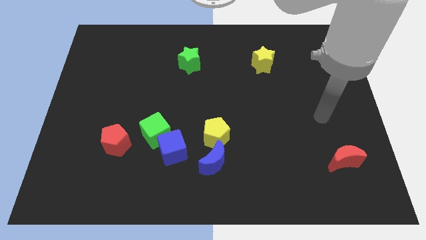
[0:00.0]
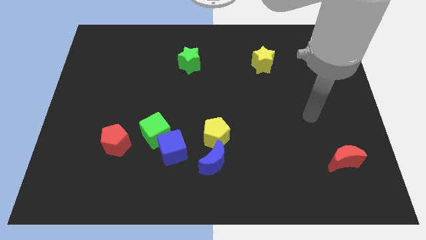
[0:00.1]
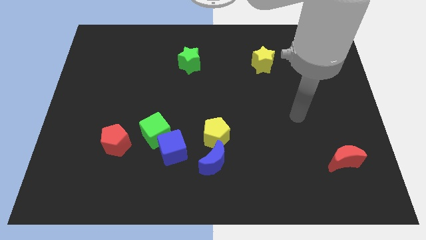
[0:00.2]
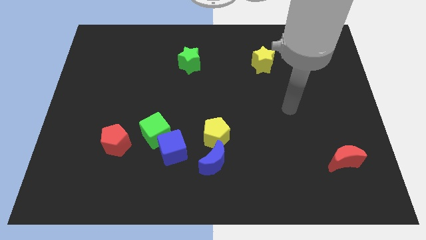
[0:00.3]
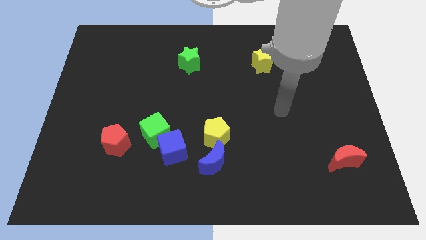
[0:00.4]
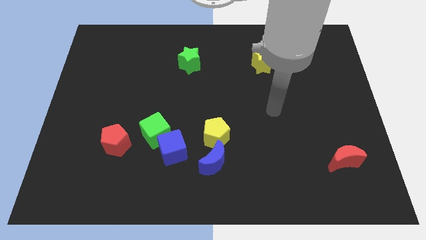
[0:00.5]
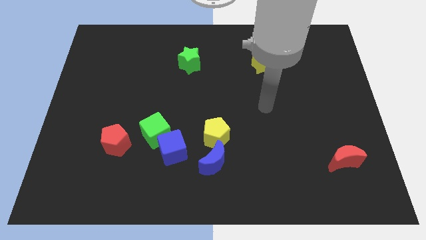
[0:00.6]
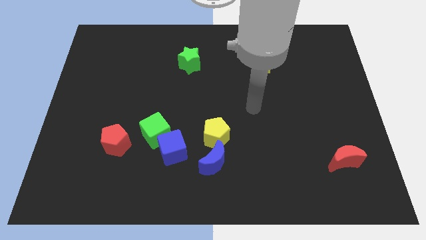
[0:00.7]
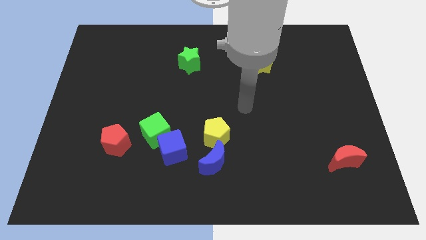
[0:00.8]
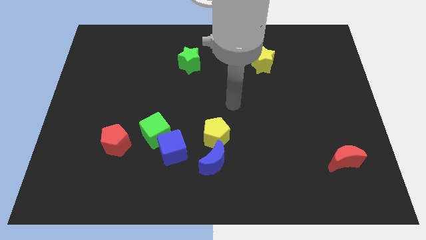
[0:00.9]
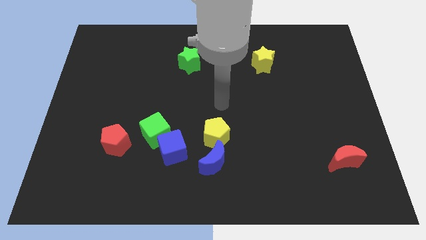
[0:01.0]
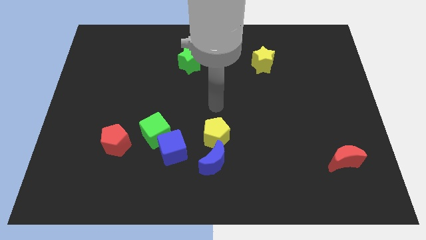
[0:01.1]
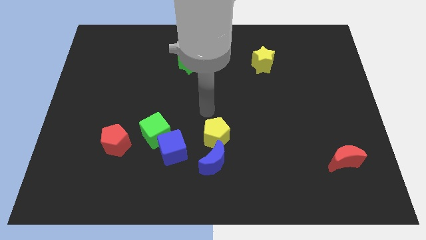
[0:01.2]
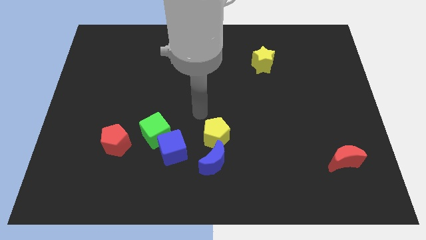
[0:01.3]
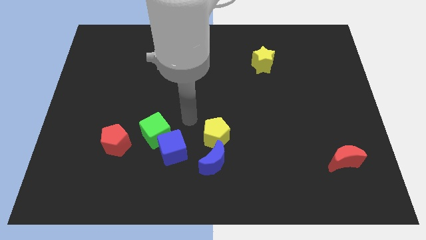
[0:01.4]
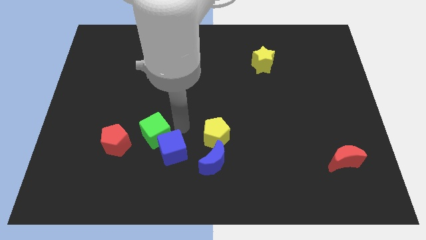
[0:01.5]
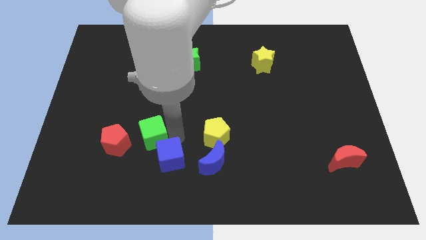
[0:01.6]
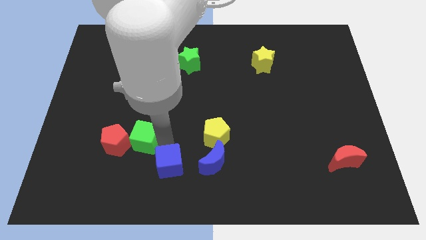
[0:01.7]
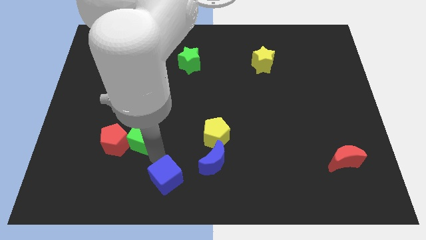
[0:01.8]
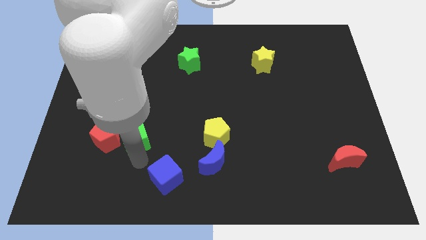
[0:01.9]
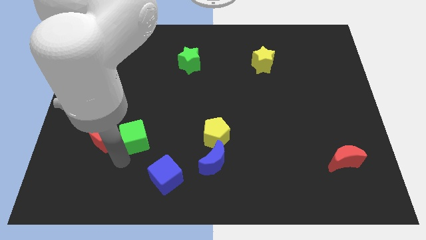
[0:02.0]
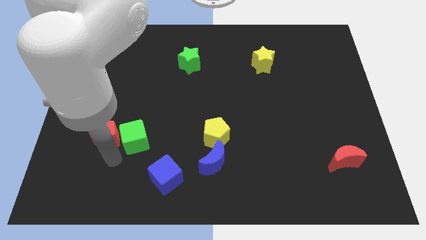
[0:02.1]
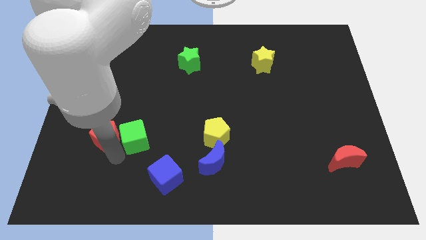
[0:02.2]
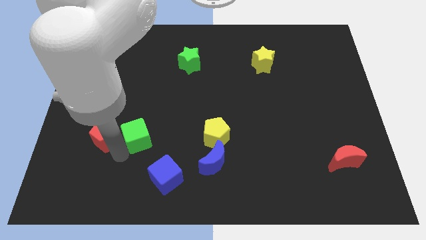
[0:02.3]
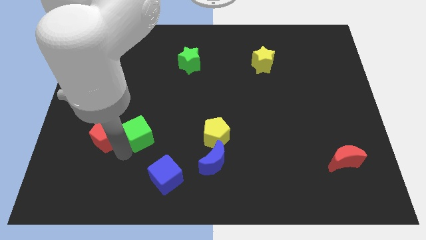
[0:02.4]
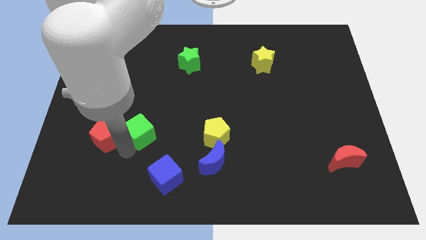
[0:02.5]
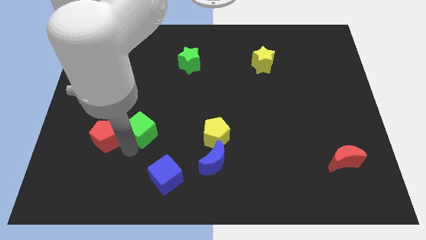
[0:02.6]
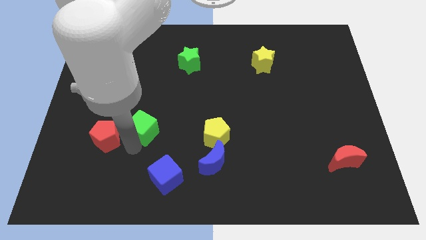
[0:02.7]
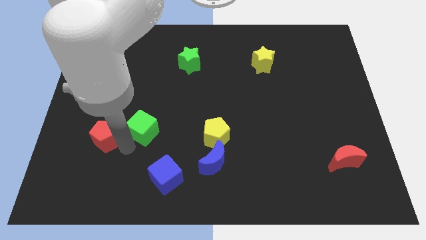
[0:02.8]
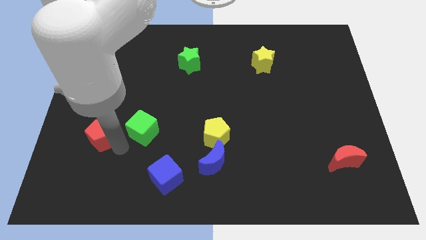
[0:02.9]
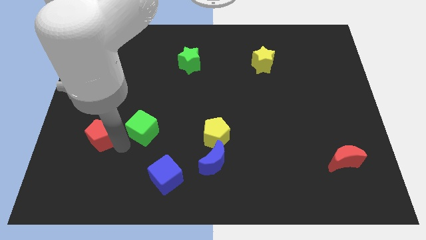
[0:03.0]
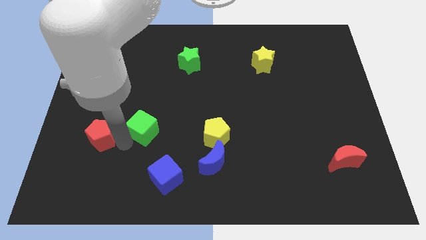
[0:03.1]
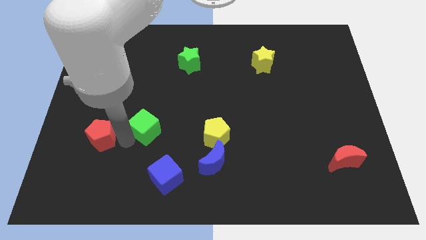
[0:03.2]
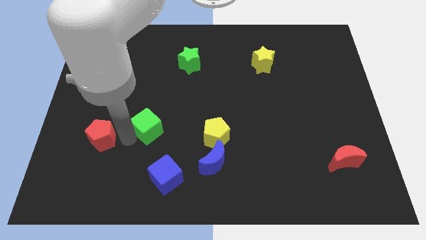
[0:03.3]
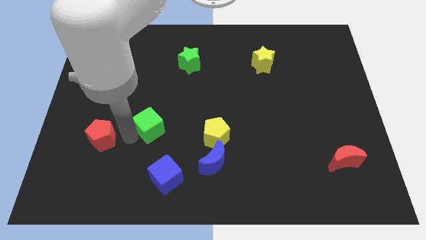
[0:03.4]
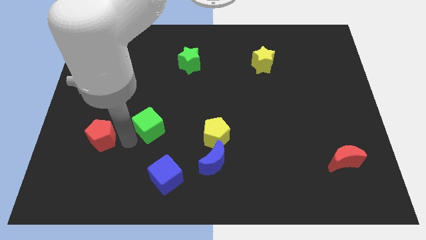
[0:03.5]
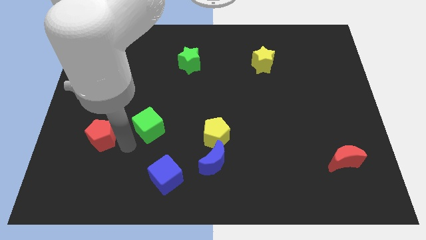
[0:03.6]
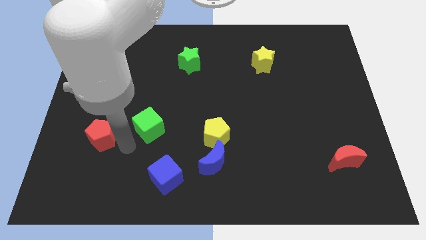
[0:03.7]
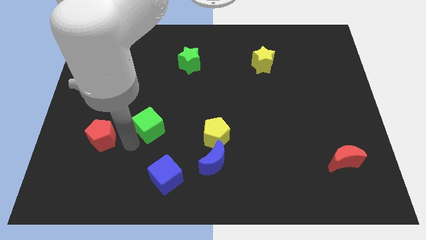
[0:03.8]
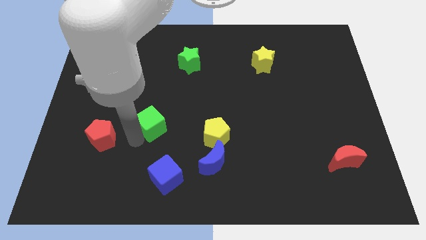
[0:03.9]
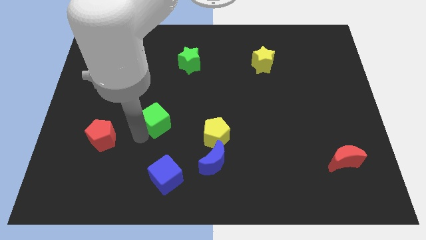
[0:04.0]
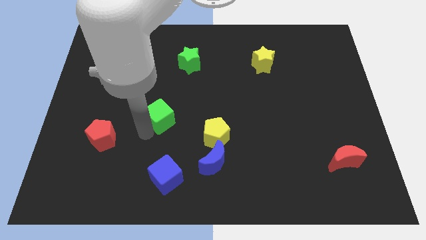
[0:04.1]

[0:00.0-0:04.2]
move the green cube away from the blue cube and red pentagon

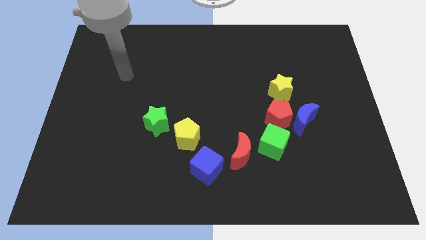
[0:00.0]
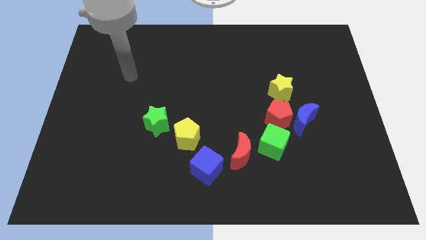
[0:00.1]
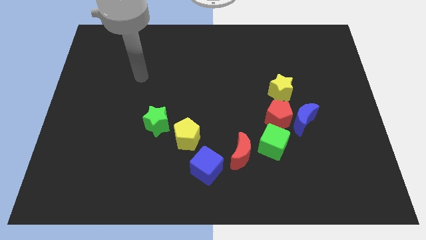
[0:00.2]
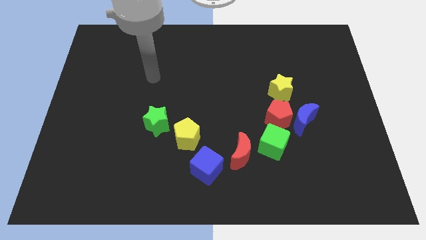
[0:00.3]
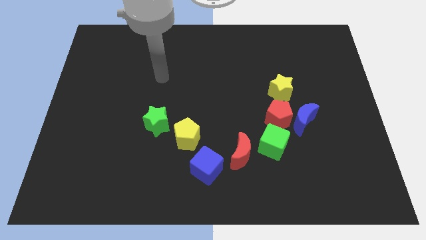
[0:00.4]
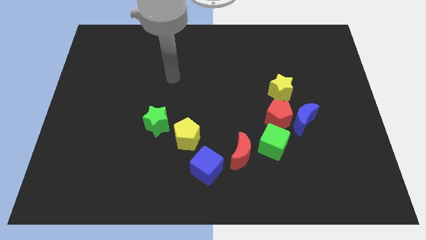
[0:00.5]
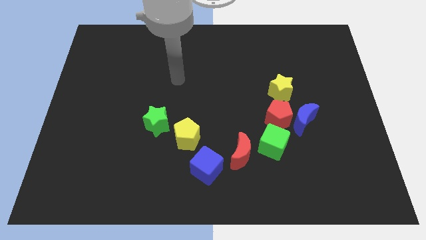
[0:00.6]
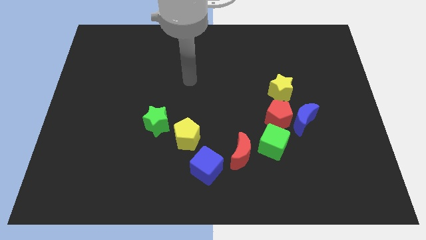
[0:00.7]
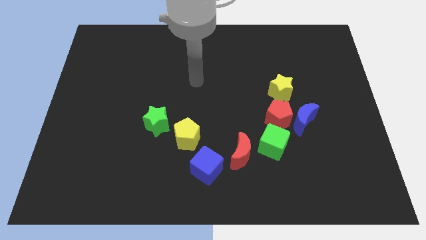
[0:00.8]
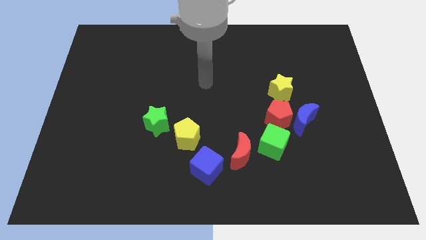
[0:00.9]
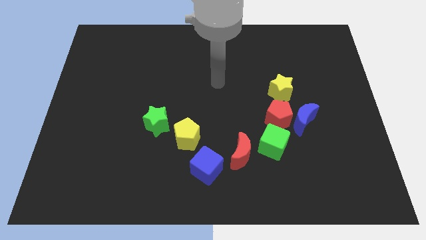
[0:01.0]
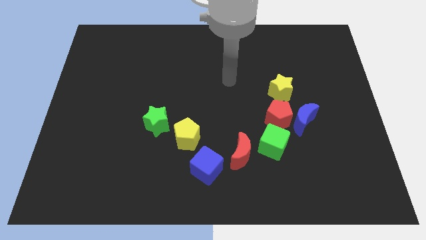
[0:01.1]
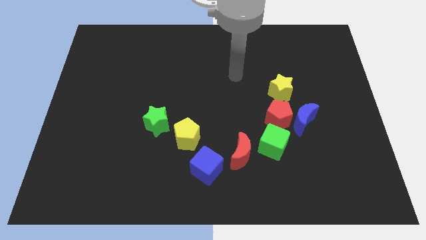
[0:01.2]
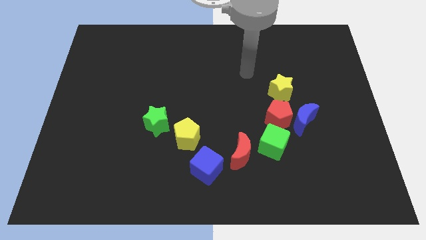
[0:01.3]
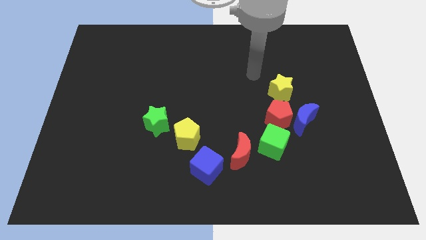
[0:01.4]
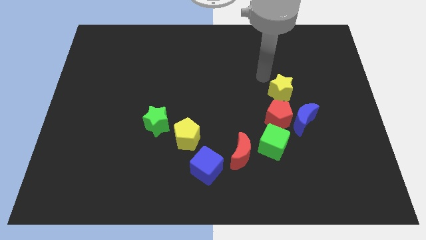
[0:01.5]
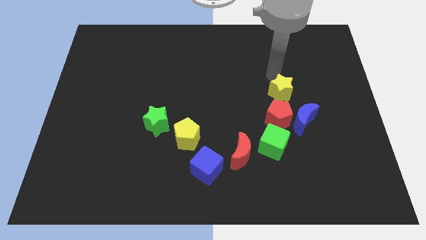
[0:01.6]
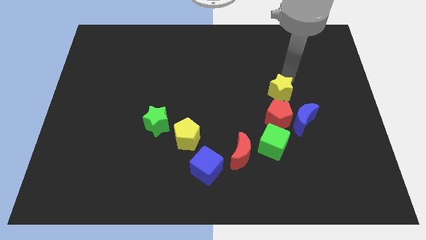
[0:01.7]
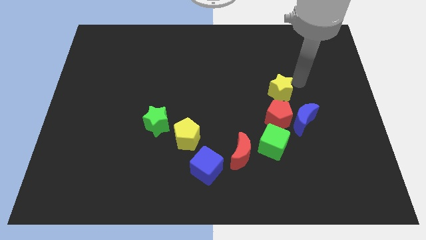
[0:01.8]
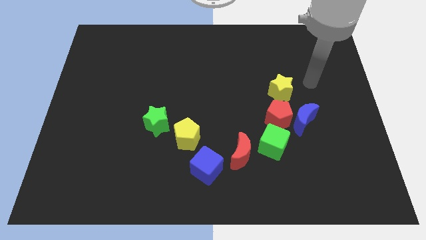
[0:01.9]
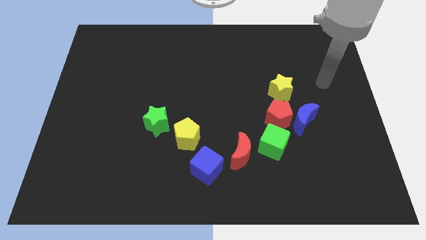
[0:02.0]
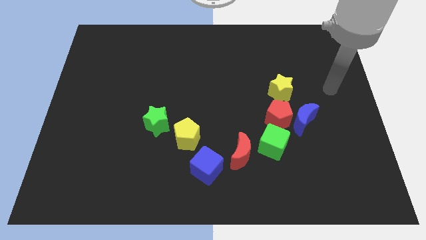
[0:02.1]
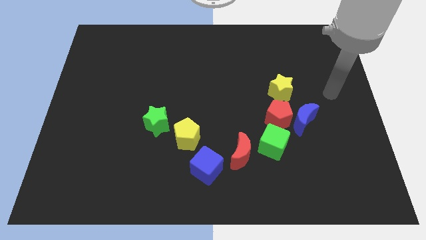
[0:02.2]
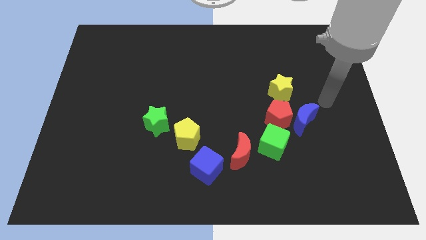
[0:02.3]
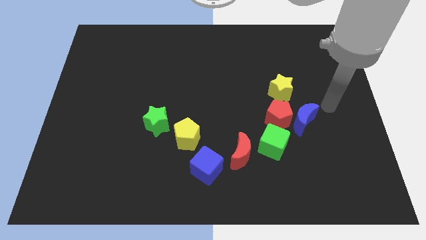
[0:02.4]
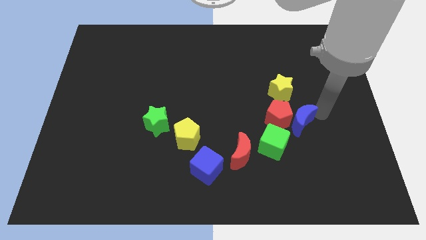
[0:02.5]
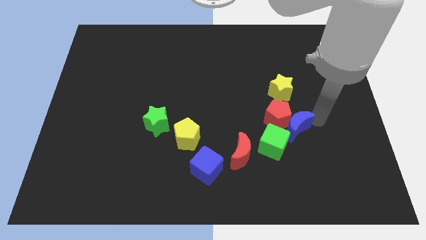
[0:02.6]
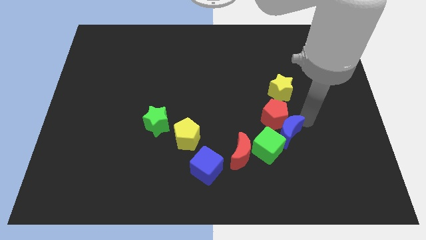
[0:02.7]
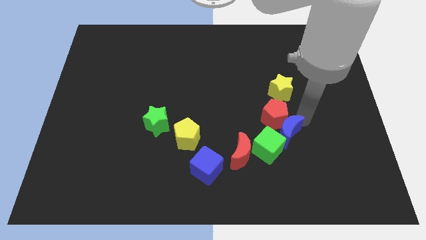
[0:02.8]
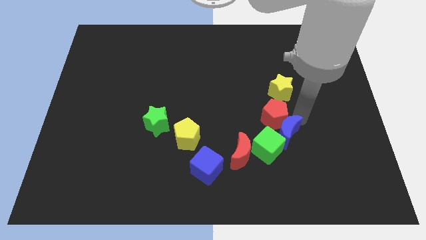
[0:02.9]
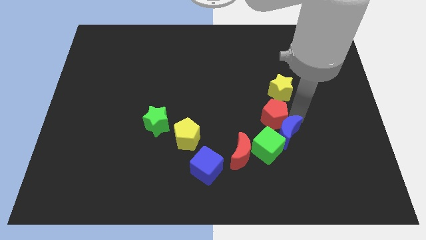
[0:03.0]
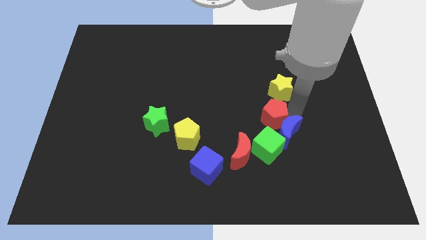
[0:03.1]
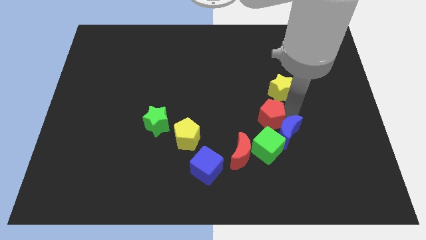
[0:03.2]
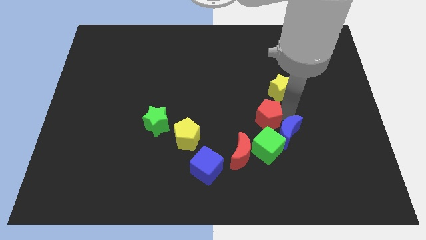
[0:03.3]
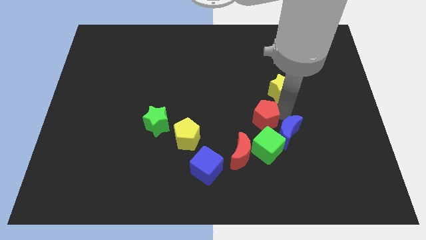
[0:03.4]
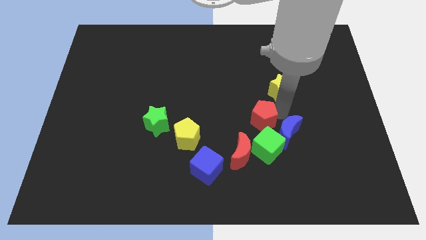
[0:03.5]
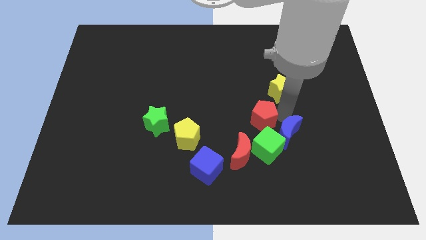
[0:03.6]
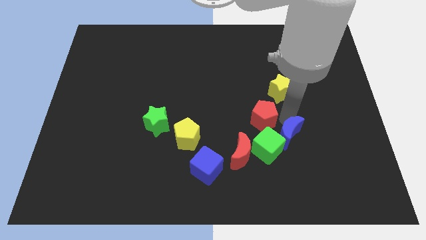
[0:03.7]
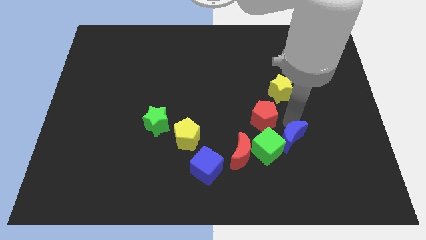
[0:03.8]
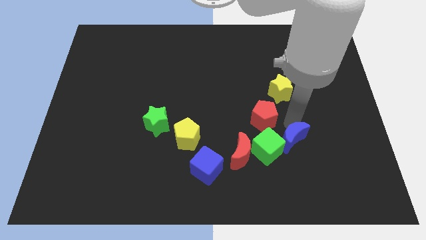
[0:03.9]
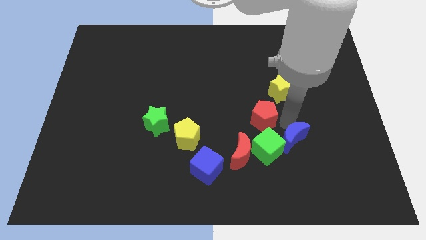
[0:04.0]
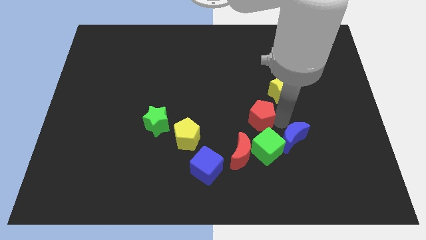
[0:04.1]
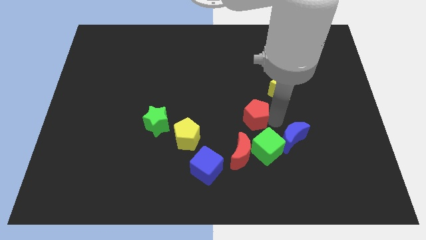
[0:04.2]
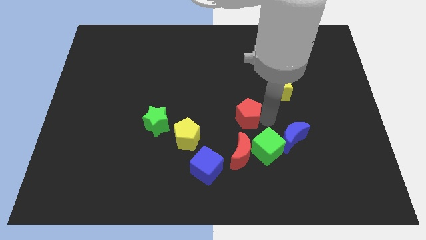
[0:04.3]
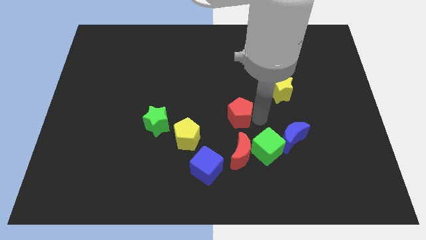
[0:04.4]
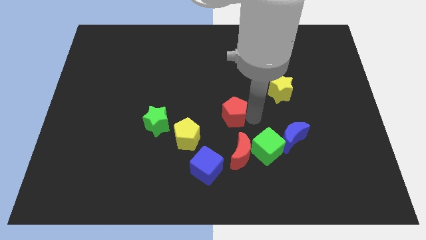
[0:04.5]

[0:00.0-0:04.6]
pull the red pentagon apart from the clump

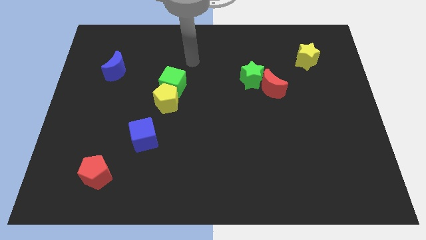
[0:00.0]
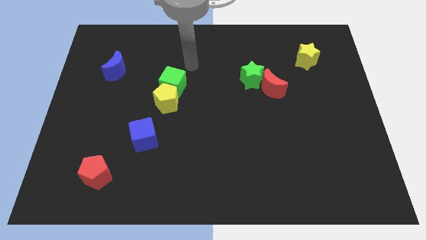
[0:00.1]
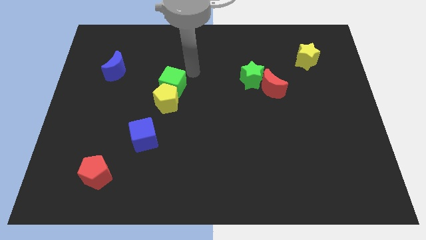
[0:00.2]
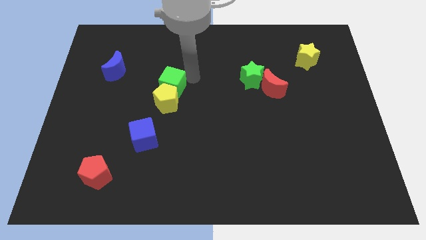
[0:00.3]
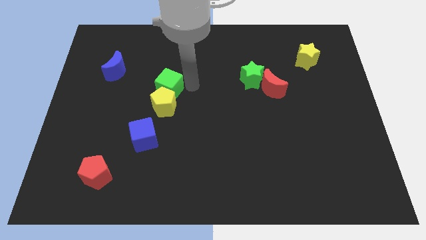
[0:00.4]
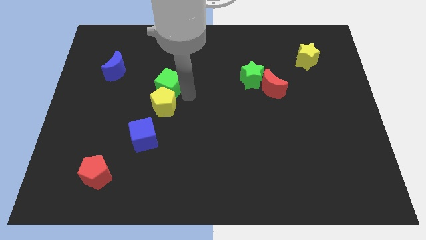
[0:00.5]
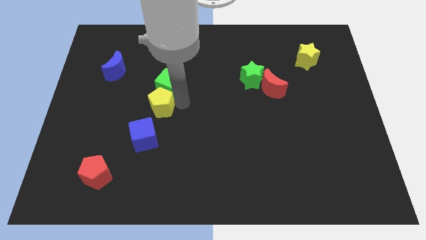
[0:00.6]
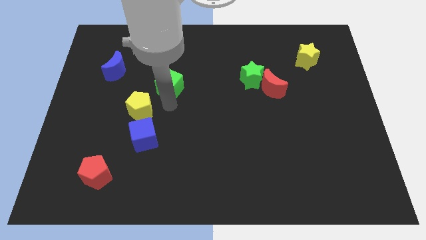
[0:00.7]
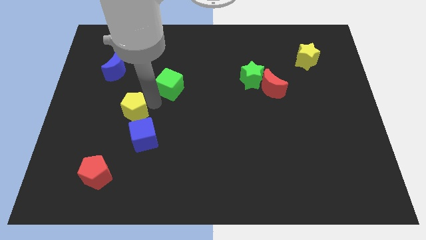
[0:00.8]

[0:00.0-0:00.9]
move the green cube away from the yellow pentagon
